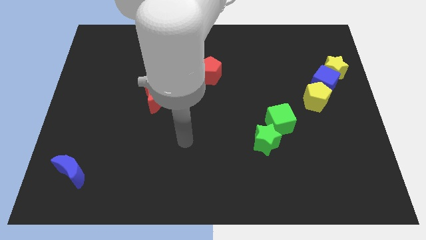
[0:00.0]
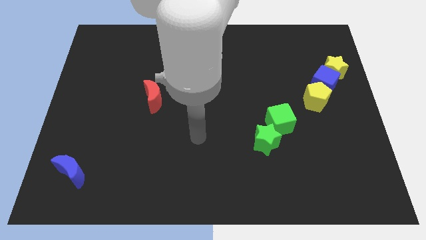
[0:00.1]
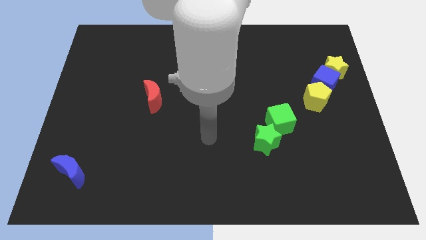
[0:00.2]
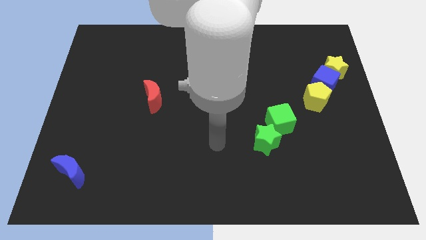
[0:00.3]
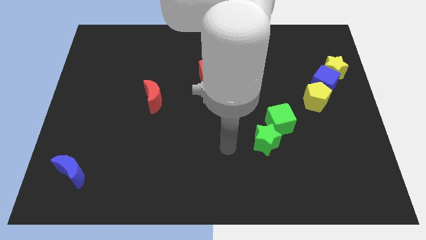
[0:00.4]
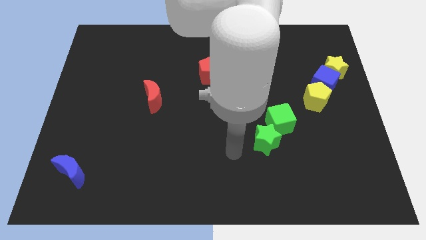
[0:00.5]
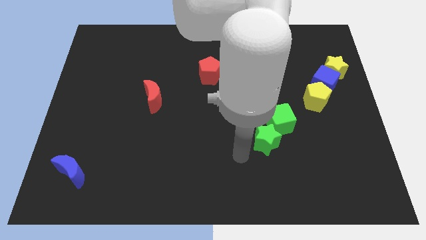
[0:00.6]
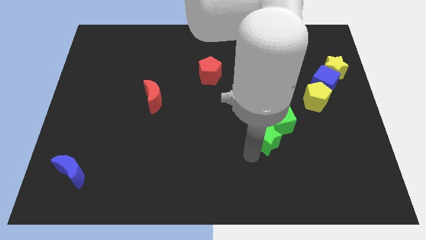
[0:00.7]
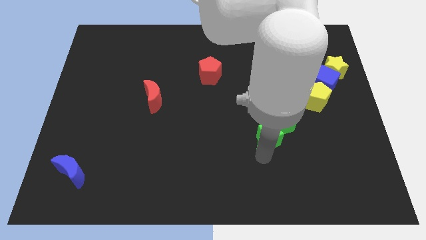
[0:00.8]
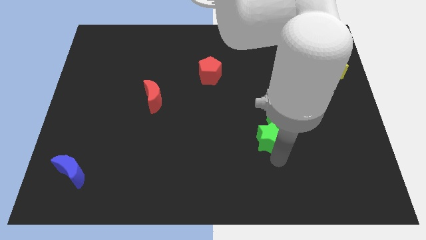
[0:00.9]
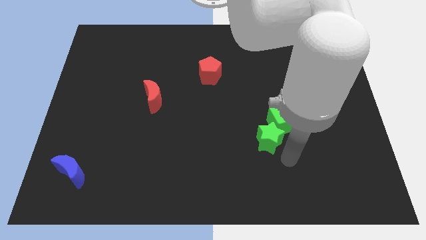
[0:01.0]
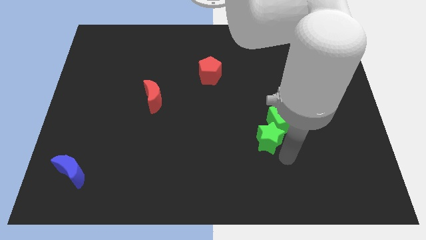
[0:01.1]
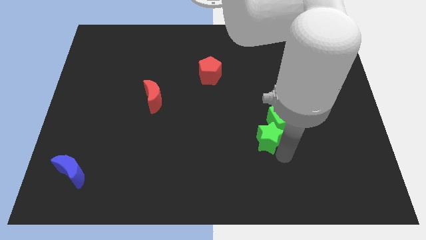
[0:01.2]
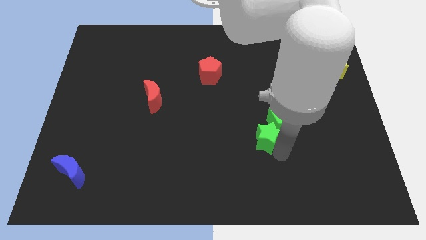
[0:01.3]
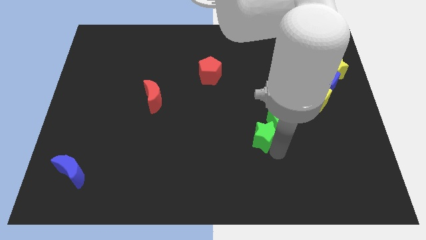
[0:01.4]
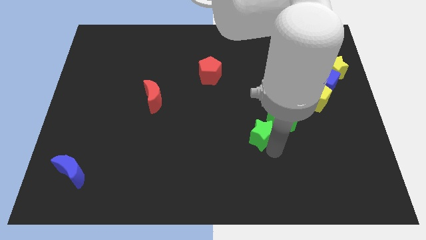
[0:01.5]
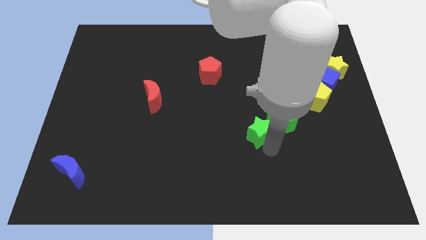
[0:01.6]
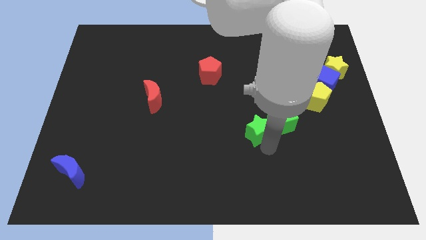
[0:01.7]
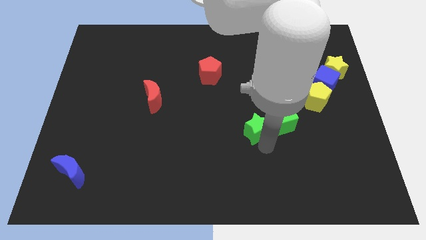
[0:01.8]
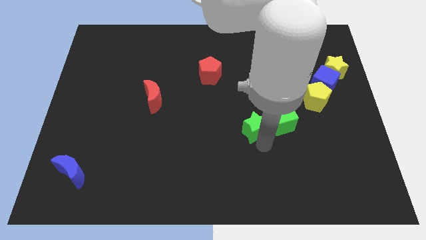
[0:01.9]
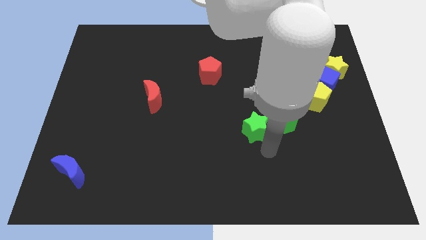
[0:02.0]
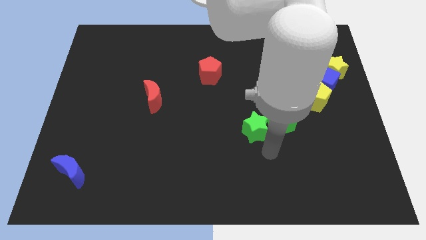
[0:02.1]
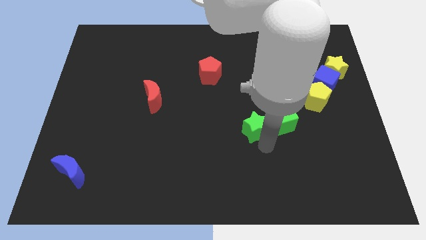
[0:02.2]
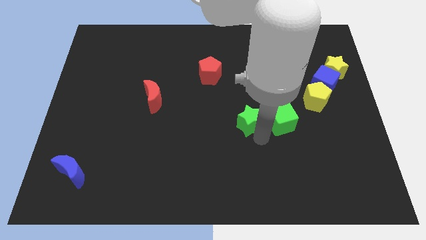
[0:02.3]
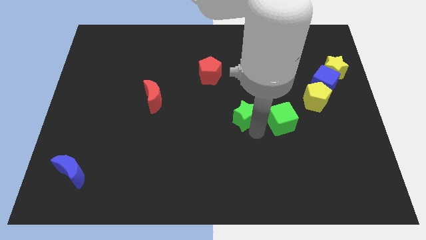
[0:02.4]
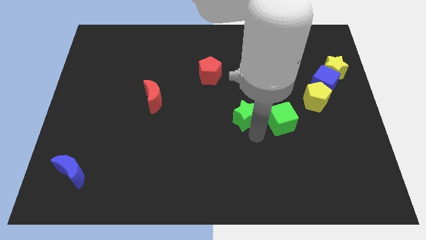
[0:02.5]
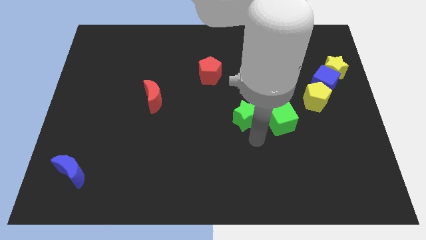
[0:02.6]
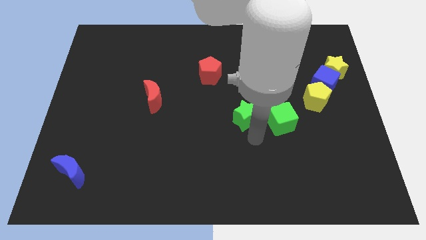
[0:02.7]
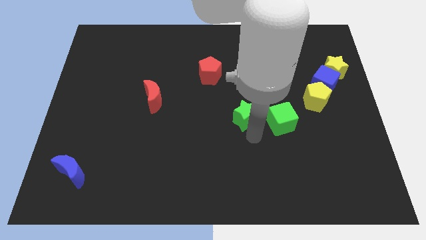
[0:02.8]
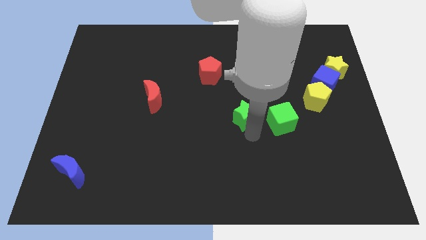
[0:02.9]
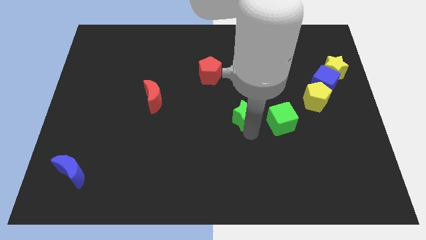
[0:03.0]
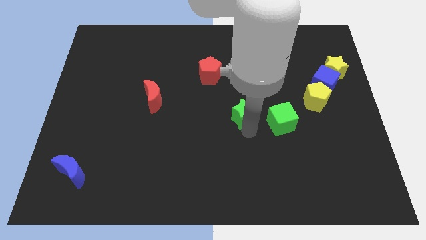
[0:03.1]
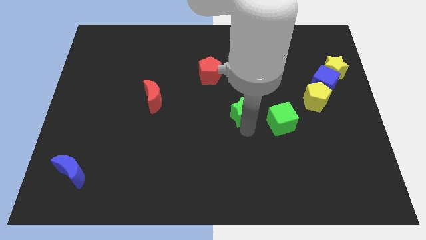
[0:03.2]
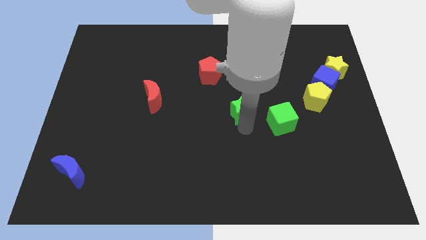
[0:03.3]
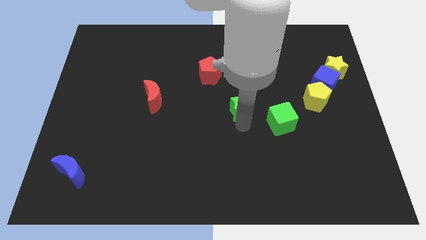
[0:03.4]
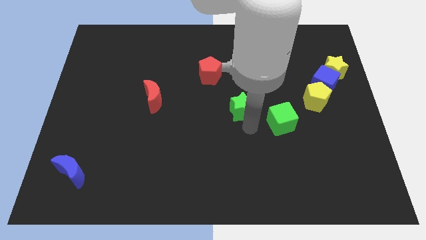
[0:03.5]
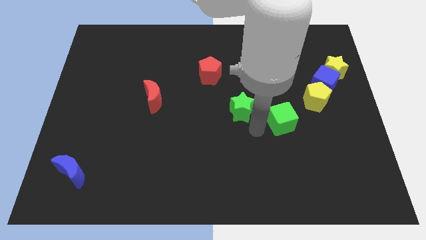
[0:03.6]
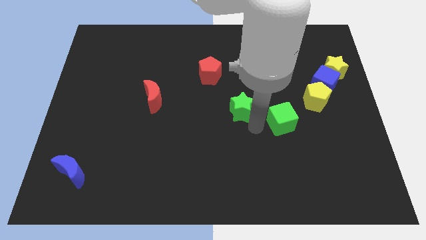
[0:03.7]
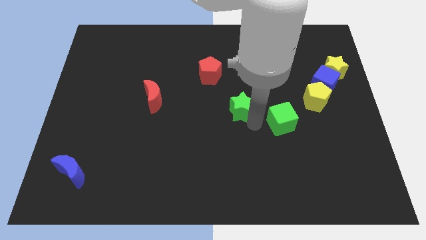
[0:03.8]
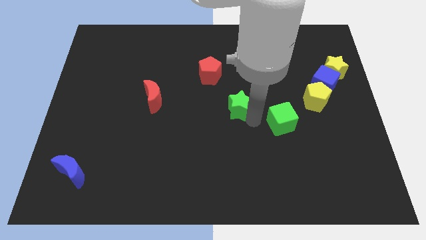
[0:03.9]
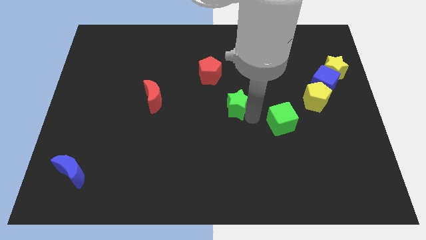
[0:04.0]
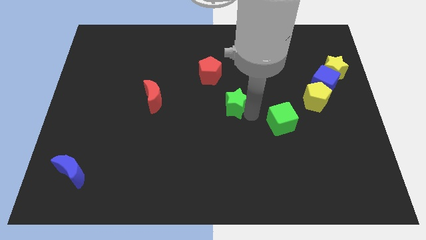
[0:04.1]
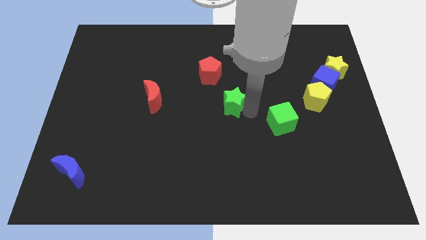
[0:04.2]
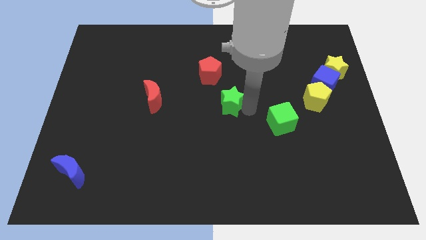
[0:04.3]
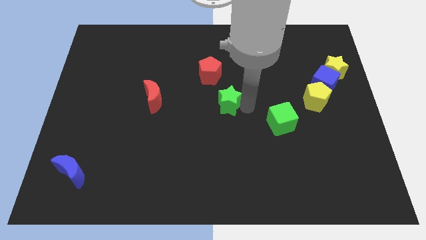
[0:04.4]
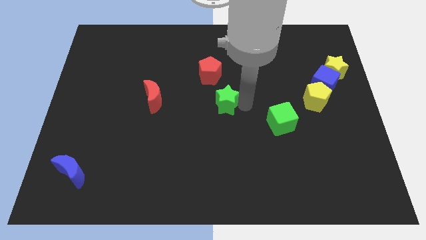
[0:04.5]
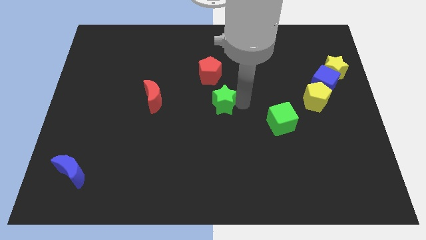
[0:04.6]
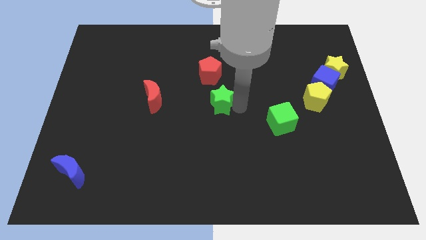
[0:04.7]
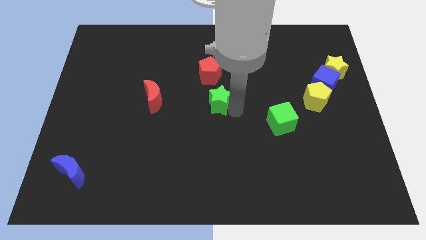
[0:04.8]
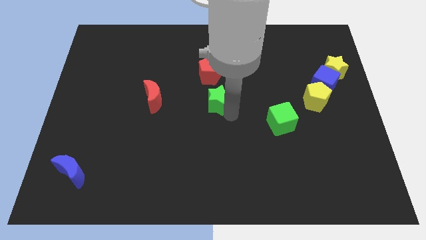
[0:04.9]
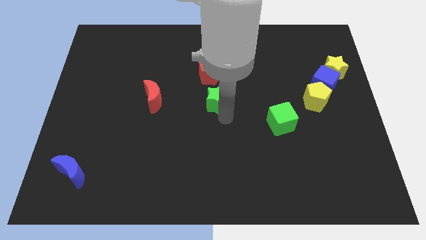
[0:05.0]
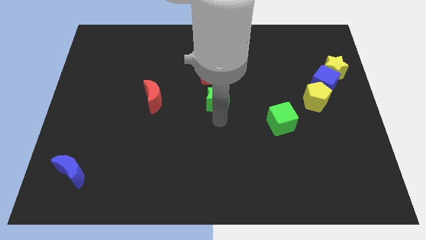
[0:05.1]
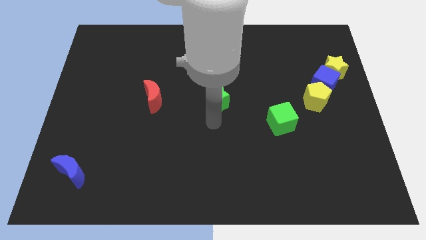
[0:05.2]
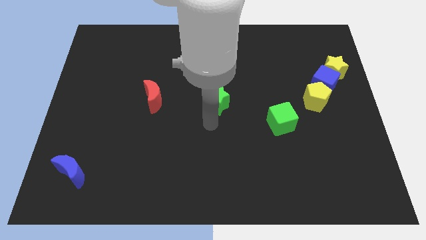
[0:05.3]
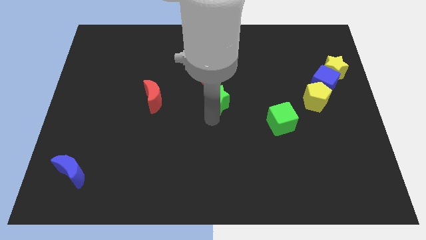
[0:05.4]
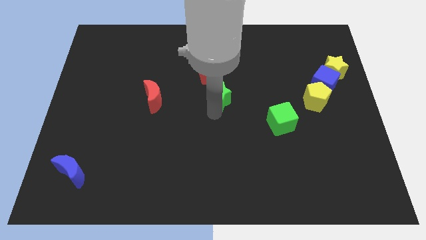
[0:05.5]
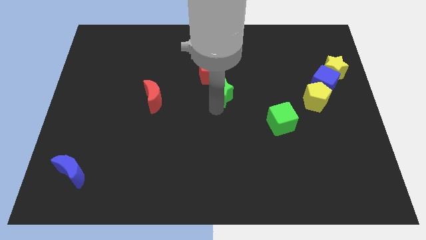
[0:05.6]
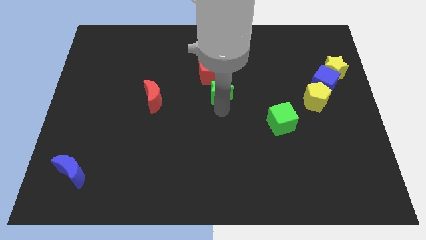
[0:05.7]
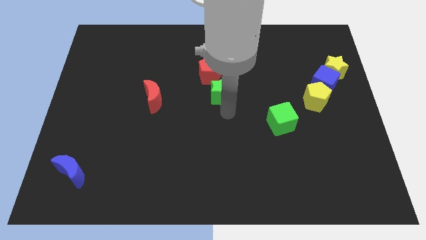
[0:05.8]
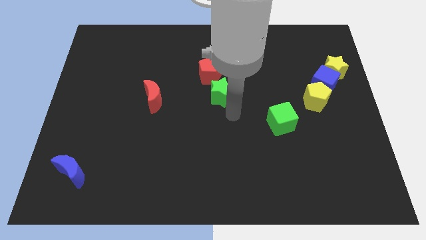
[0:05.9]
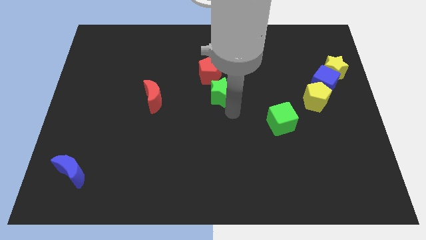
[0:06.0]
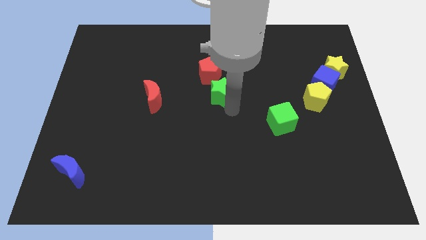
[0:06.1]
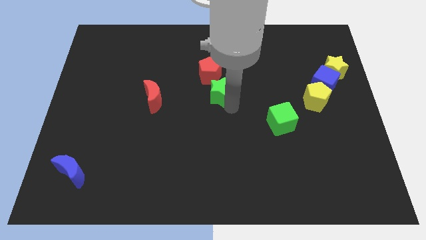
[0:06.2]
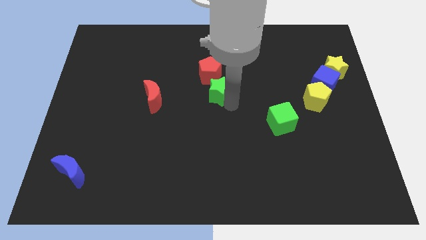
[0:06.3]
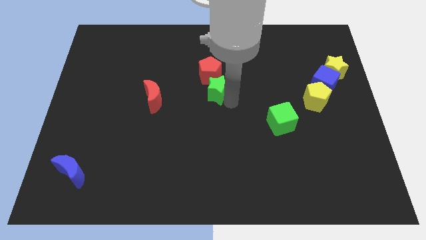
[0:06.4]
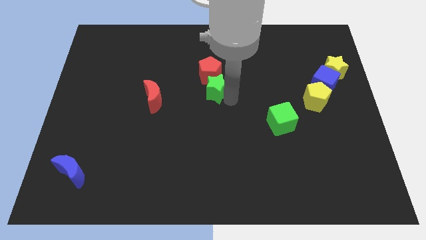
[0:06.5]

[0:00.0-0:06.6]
move the green star towards the red pentagon

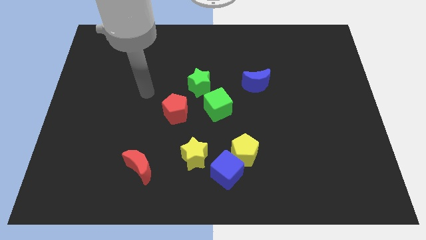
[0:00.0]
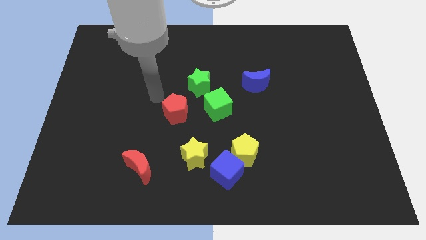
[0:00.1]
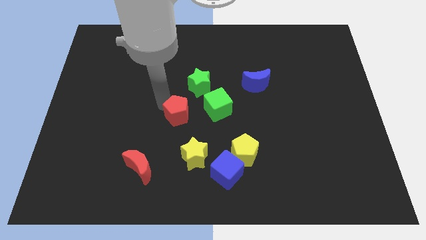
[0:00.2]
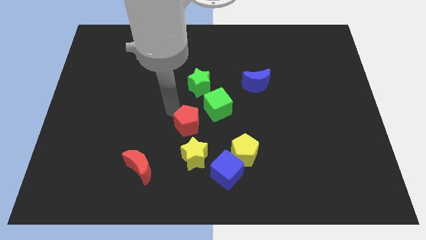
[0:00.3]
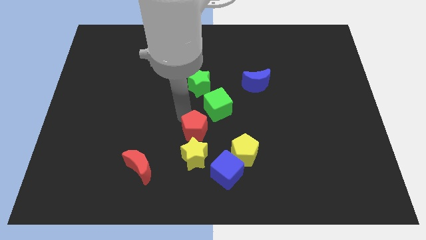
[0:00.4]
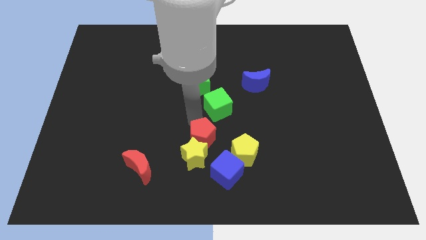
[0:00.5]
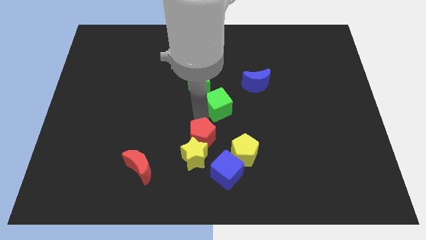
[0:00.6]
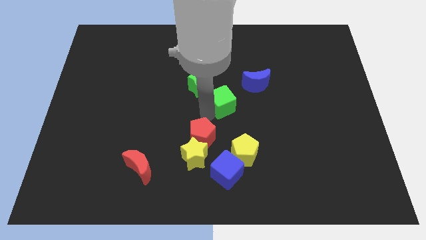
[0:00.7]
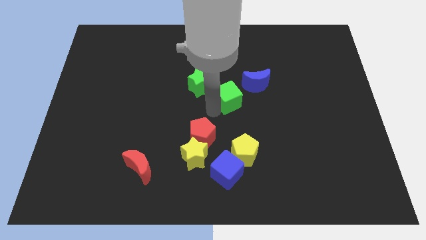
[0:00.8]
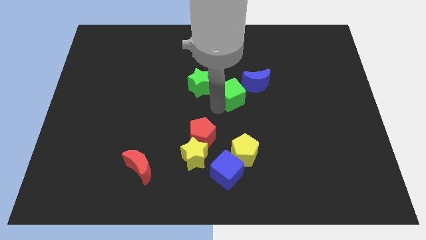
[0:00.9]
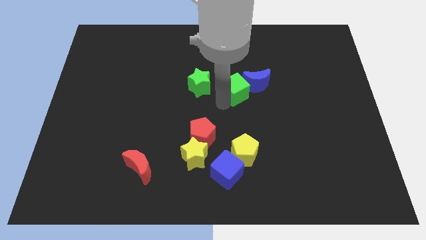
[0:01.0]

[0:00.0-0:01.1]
slide the green cube to the blue moon
